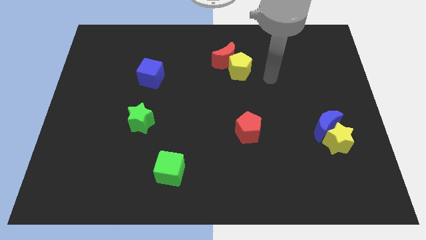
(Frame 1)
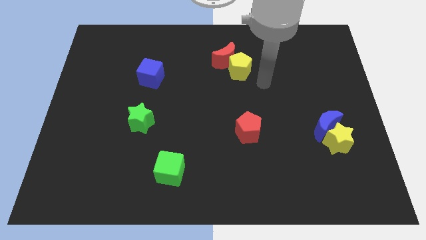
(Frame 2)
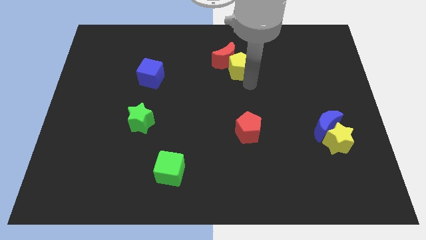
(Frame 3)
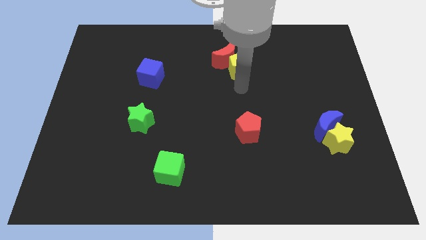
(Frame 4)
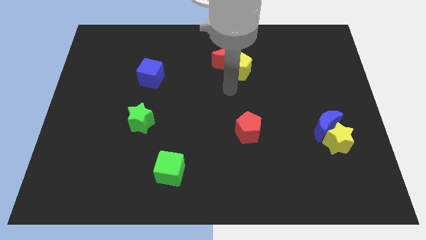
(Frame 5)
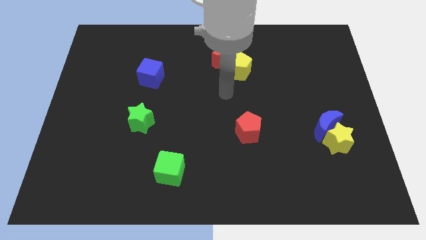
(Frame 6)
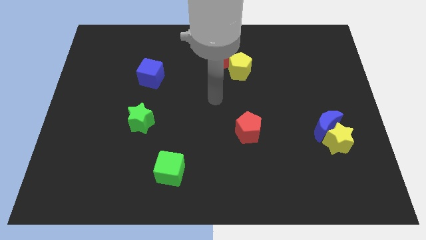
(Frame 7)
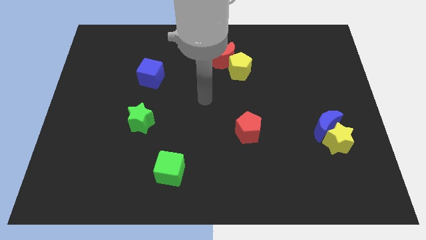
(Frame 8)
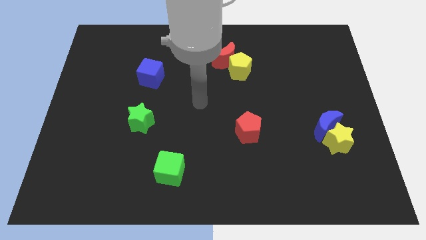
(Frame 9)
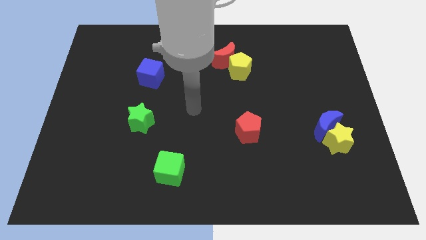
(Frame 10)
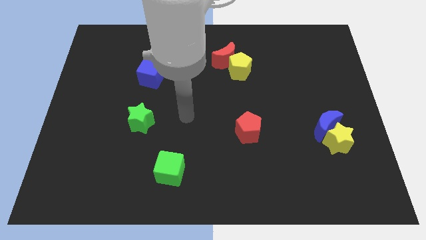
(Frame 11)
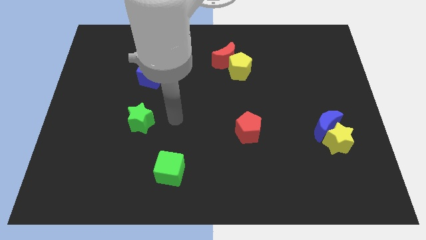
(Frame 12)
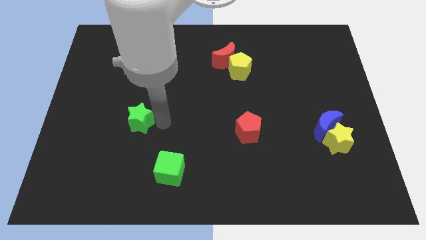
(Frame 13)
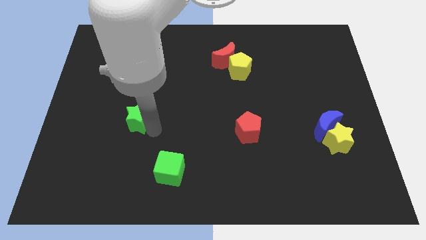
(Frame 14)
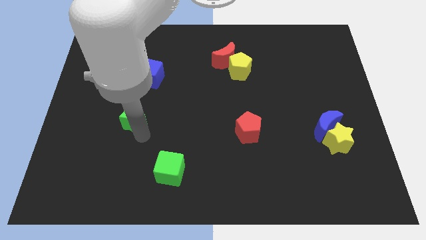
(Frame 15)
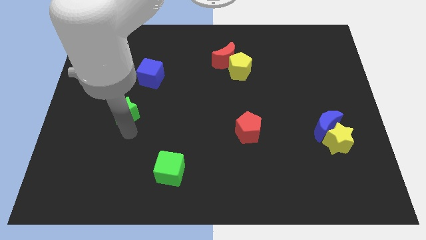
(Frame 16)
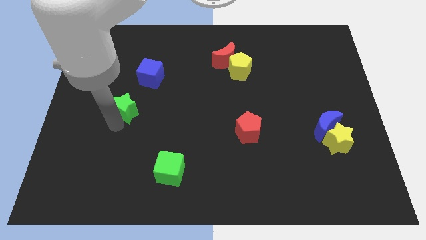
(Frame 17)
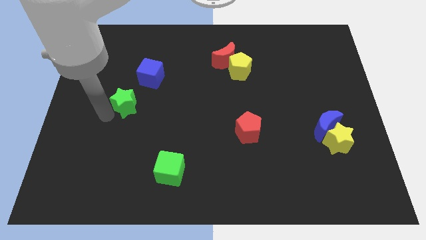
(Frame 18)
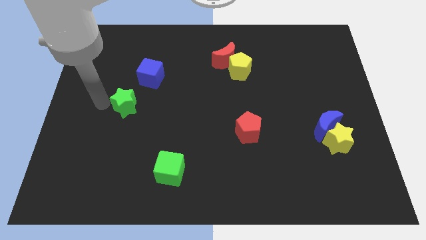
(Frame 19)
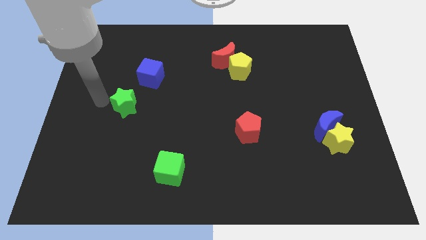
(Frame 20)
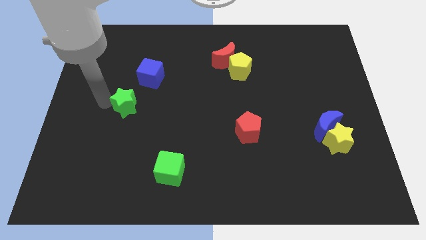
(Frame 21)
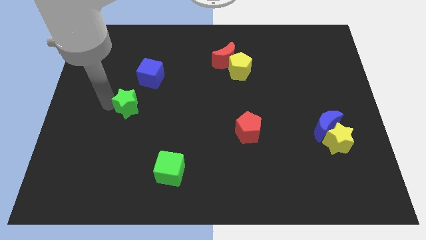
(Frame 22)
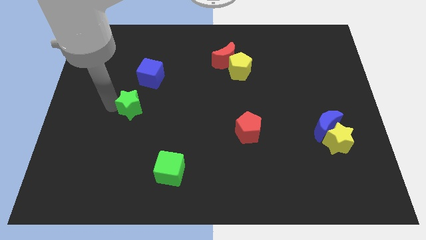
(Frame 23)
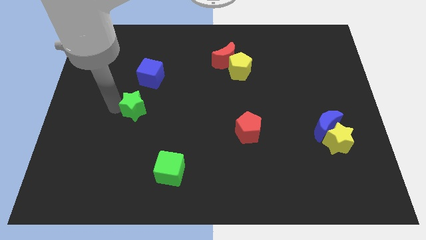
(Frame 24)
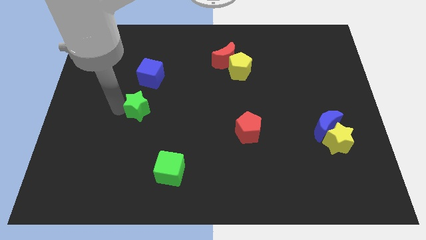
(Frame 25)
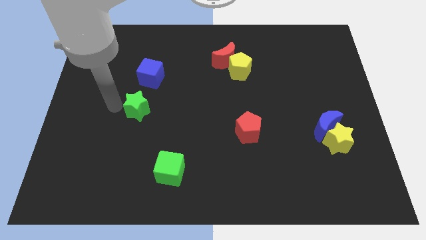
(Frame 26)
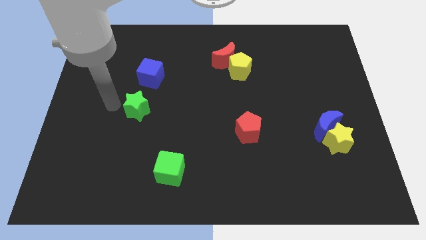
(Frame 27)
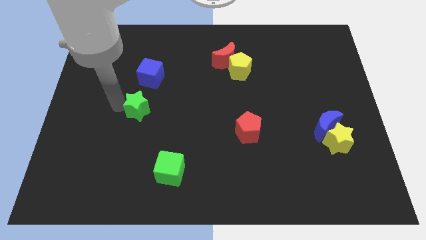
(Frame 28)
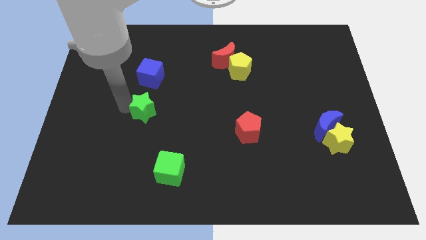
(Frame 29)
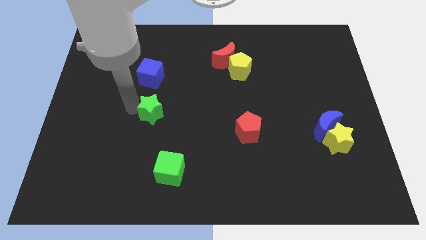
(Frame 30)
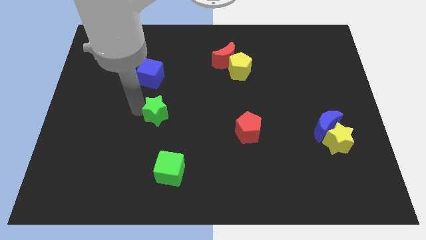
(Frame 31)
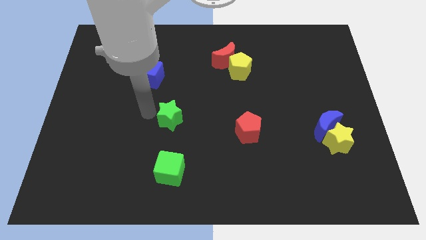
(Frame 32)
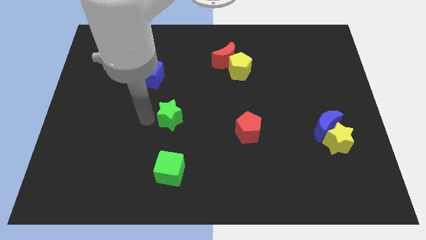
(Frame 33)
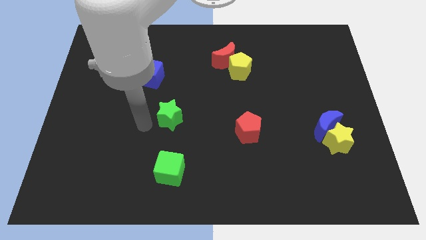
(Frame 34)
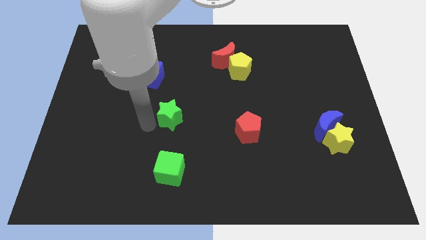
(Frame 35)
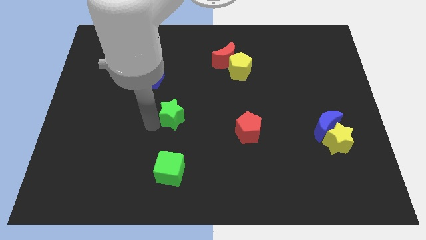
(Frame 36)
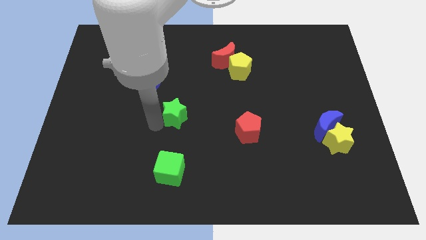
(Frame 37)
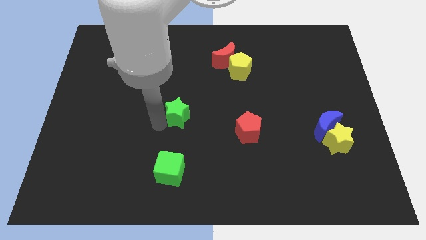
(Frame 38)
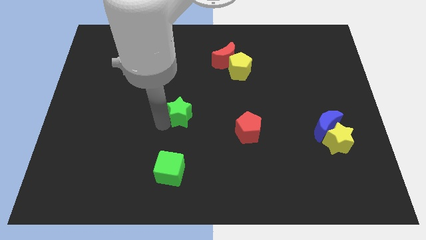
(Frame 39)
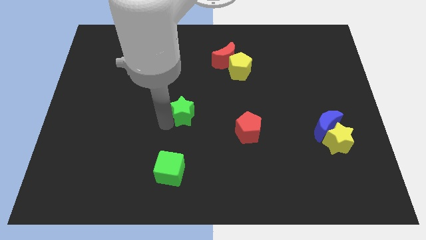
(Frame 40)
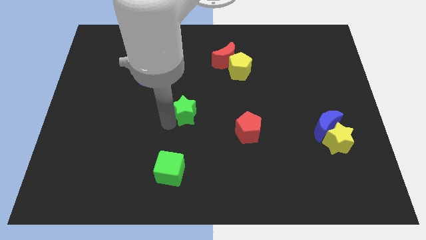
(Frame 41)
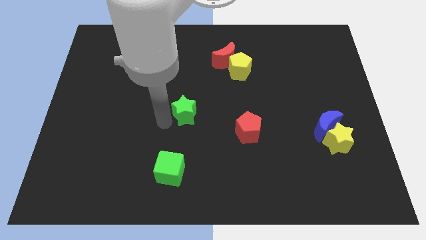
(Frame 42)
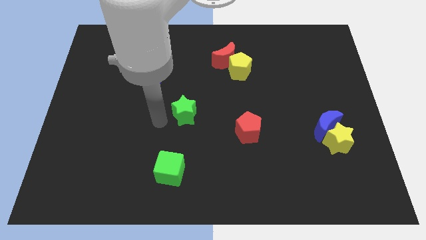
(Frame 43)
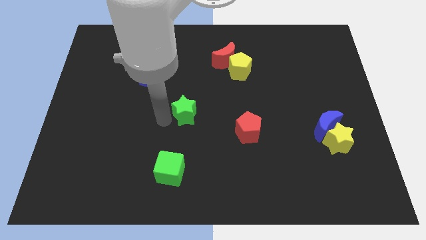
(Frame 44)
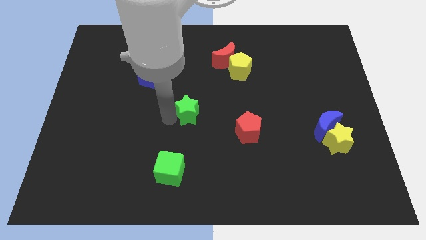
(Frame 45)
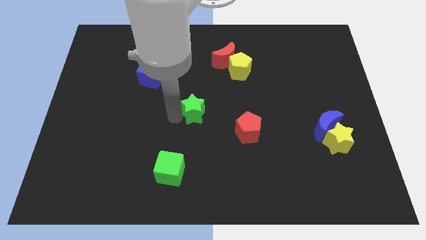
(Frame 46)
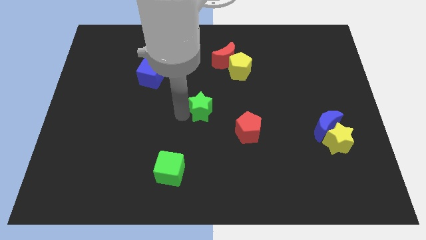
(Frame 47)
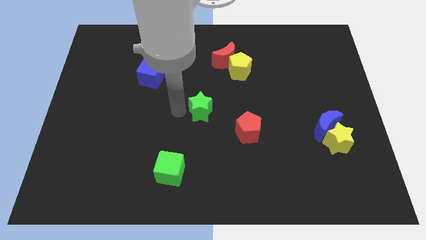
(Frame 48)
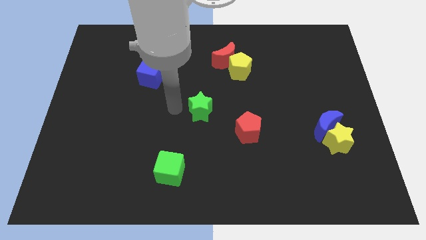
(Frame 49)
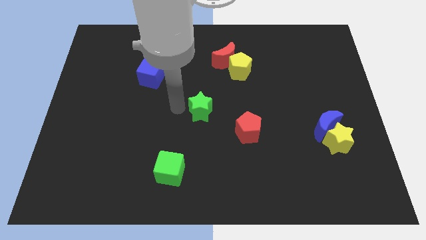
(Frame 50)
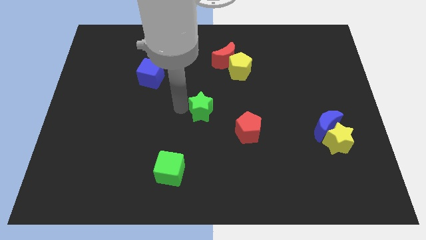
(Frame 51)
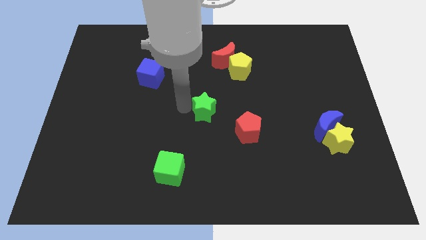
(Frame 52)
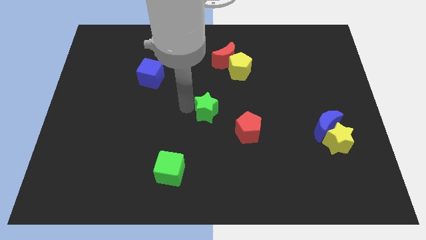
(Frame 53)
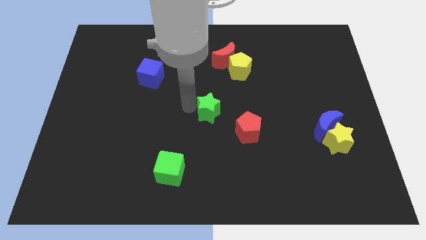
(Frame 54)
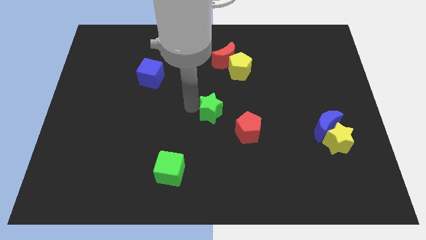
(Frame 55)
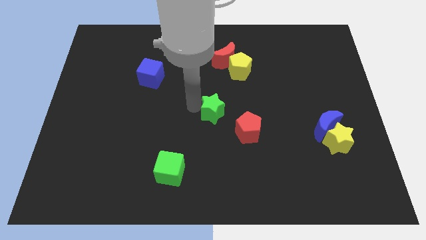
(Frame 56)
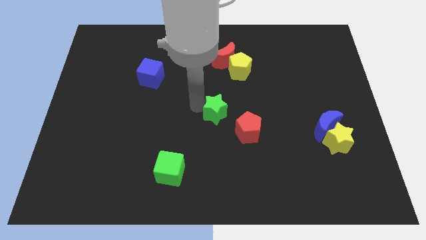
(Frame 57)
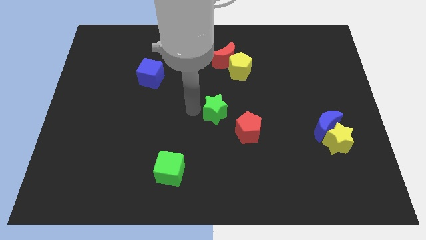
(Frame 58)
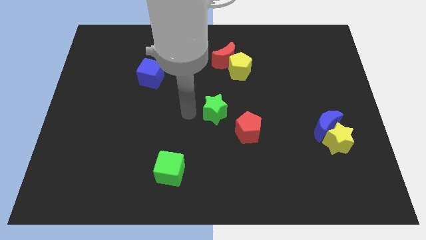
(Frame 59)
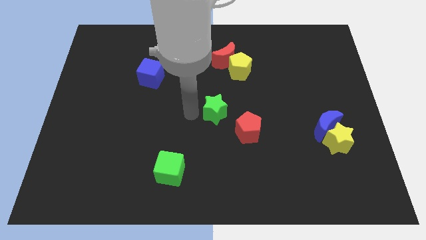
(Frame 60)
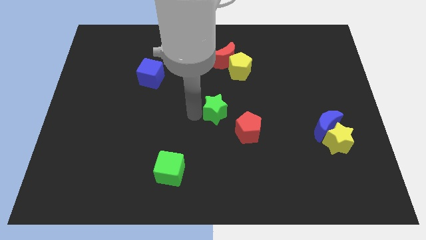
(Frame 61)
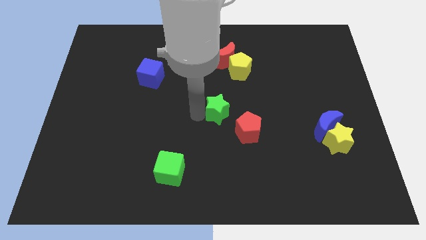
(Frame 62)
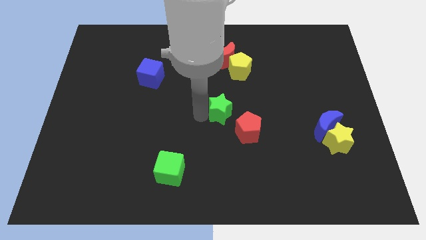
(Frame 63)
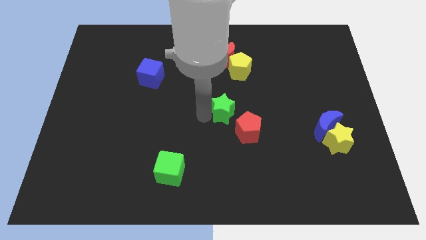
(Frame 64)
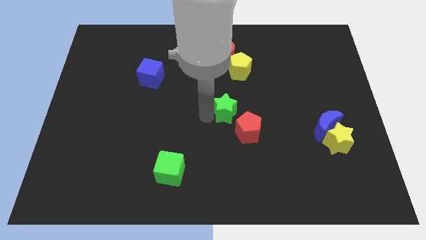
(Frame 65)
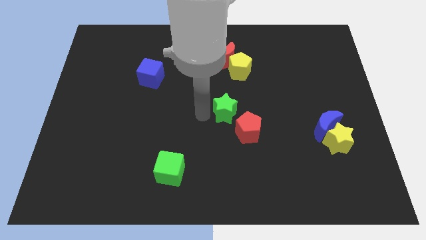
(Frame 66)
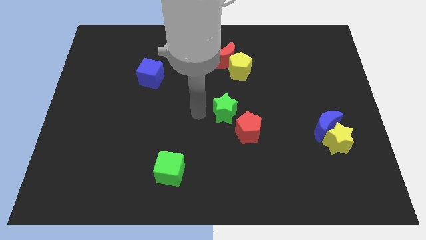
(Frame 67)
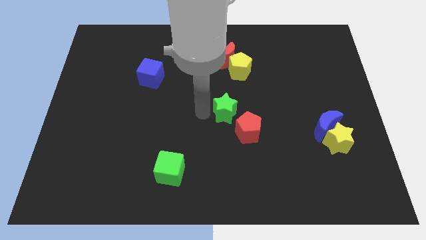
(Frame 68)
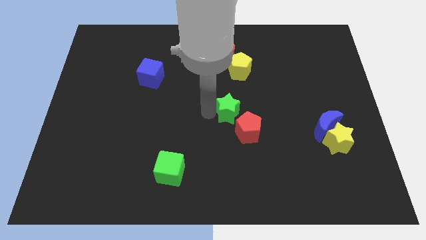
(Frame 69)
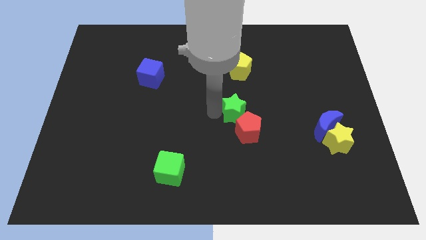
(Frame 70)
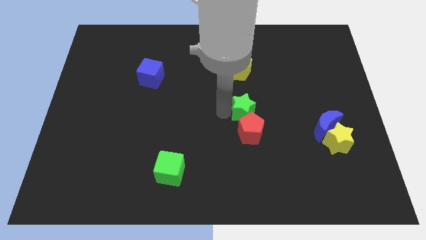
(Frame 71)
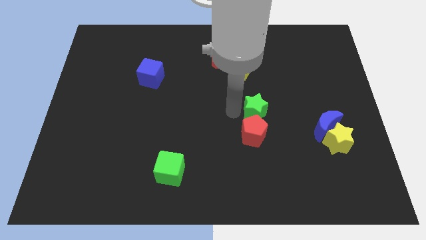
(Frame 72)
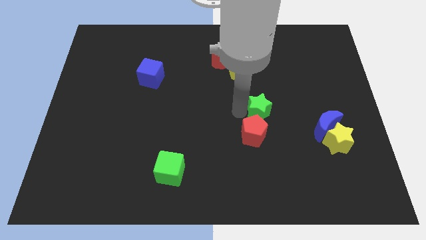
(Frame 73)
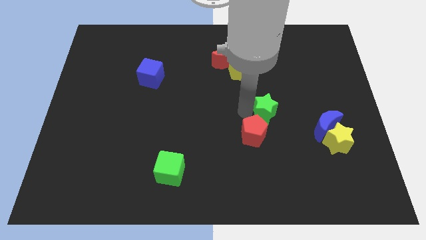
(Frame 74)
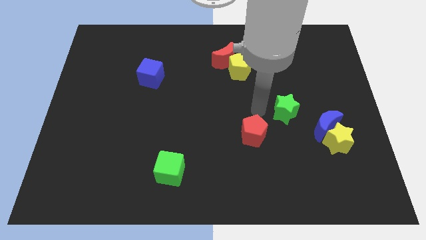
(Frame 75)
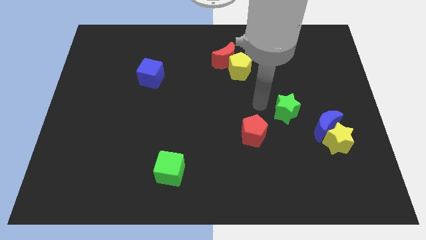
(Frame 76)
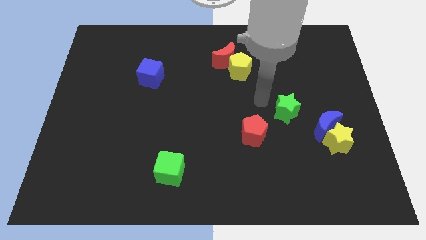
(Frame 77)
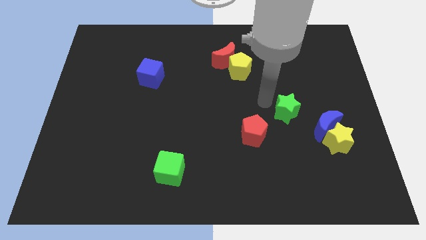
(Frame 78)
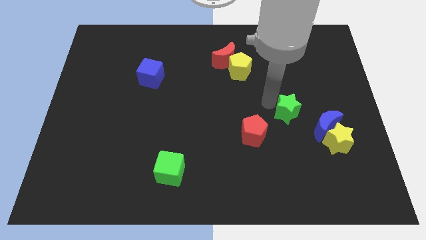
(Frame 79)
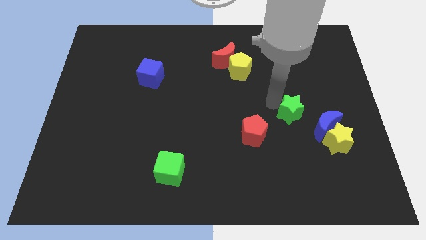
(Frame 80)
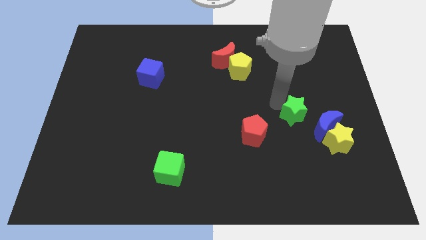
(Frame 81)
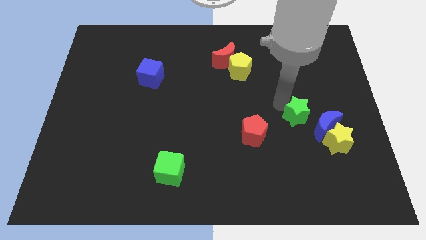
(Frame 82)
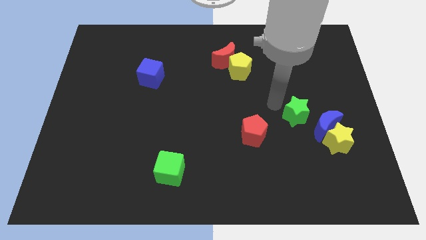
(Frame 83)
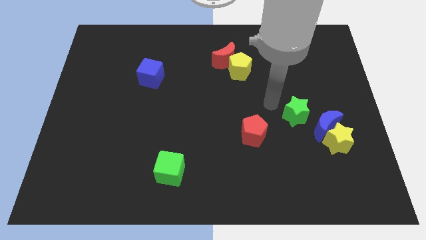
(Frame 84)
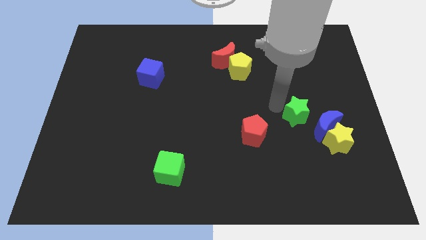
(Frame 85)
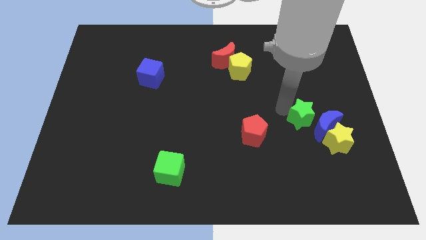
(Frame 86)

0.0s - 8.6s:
put the green star towards the blue moon
